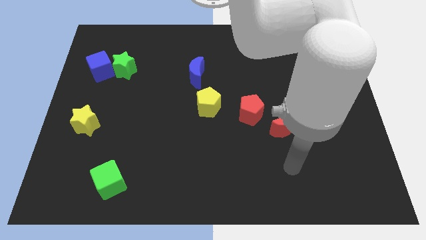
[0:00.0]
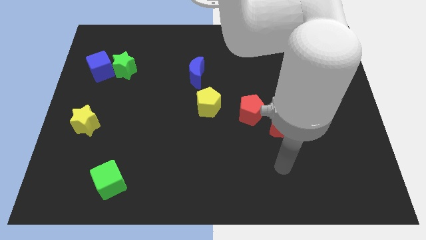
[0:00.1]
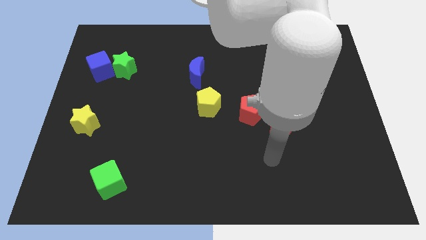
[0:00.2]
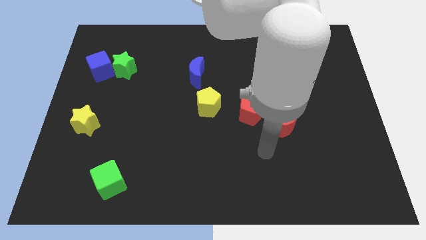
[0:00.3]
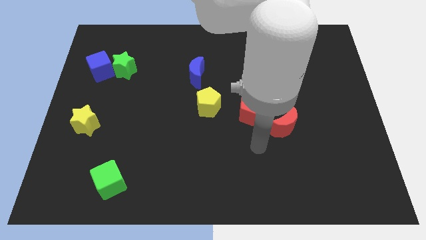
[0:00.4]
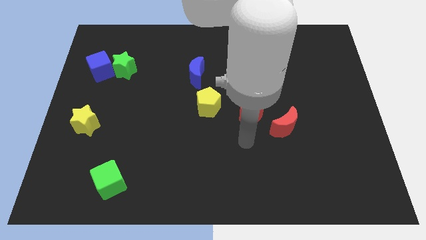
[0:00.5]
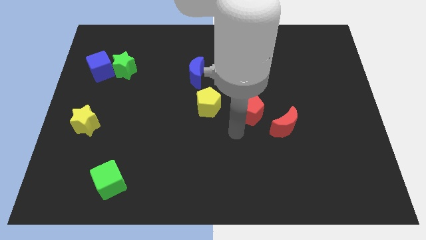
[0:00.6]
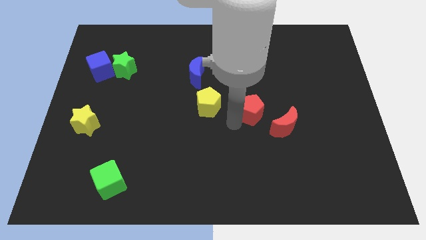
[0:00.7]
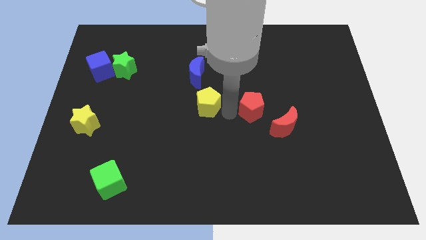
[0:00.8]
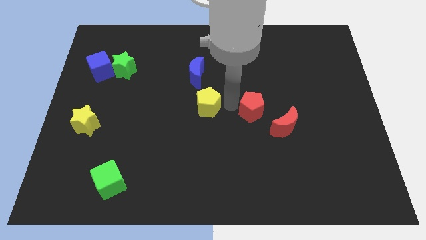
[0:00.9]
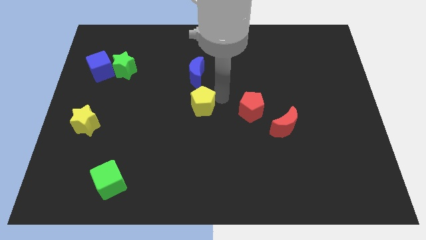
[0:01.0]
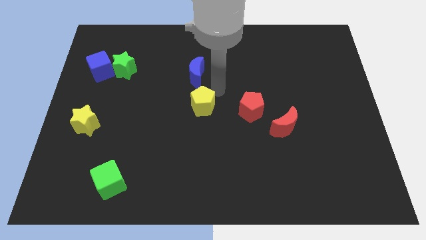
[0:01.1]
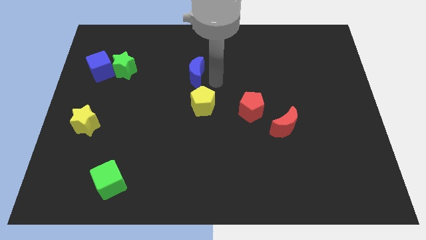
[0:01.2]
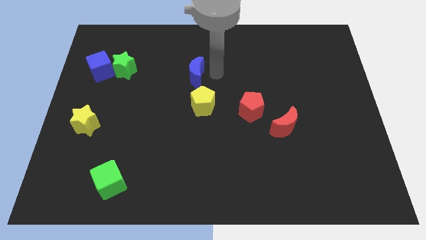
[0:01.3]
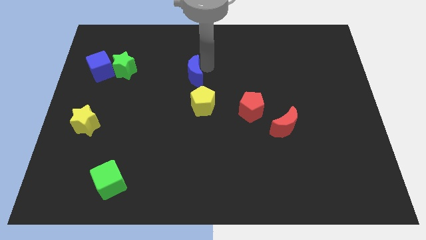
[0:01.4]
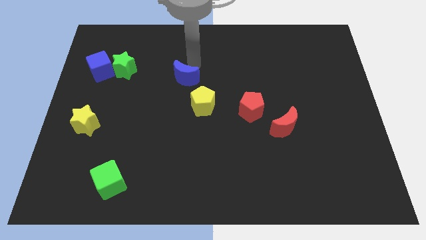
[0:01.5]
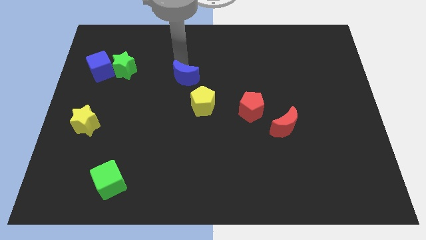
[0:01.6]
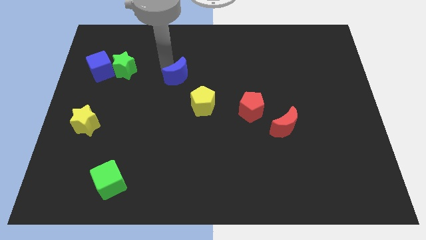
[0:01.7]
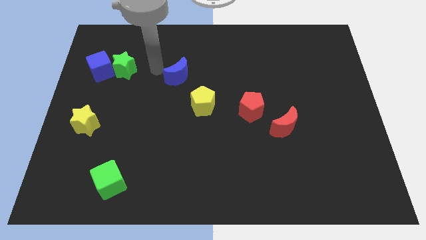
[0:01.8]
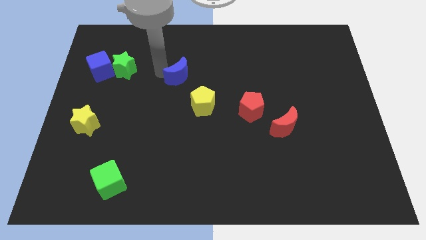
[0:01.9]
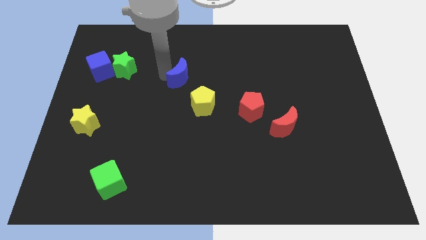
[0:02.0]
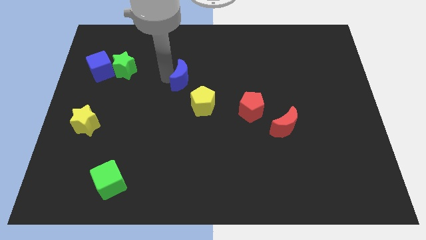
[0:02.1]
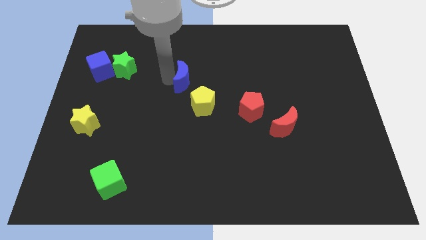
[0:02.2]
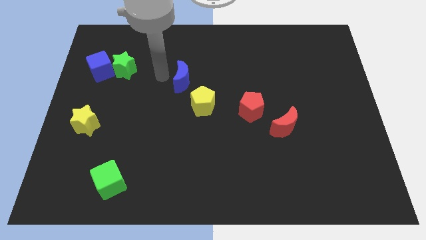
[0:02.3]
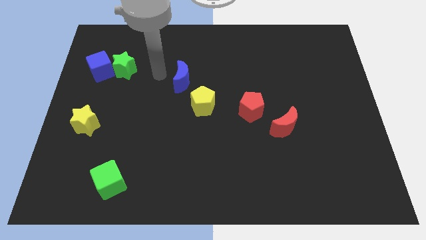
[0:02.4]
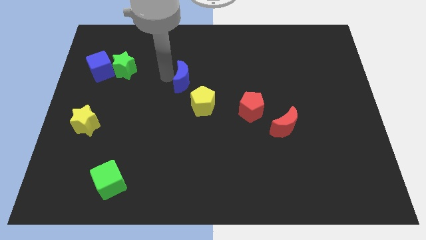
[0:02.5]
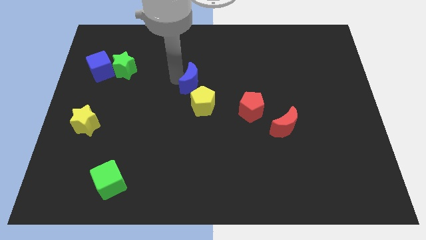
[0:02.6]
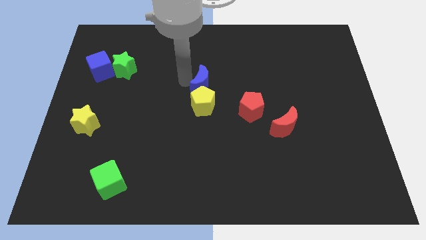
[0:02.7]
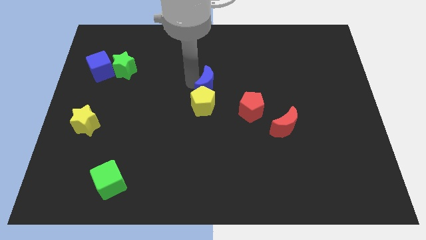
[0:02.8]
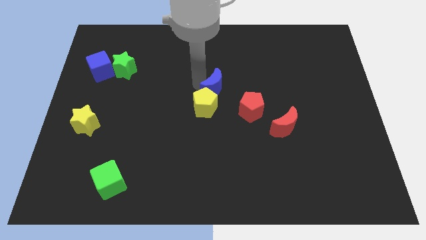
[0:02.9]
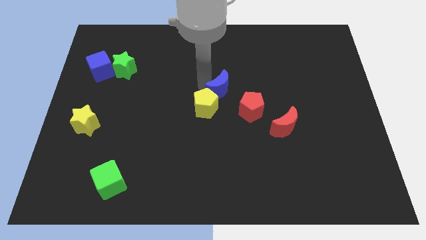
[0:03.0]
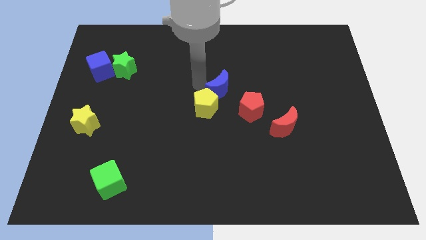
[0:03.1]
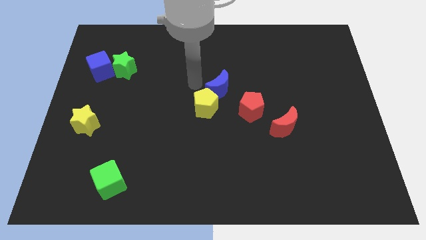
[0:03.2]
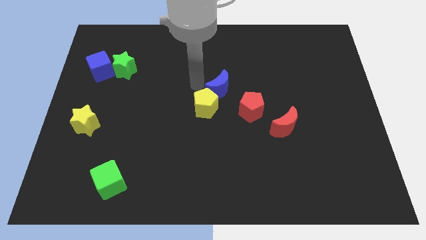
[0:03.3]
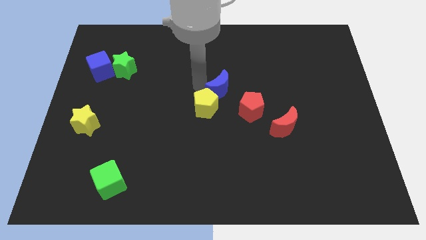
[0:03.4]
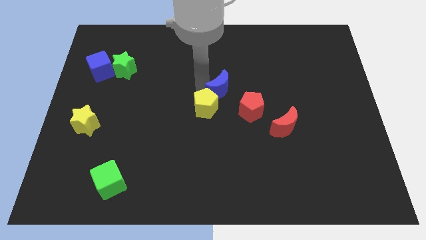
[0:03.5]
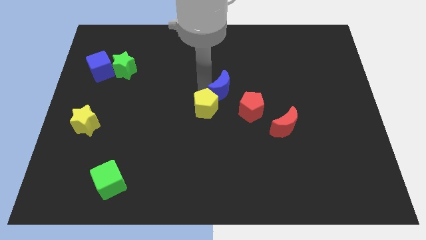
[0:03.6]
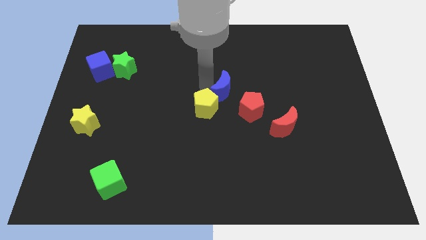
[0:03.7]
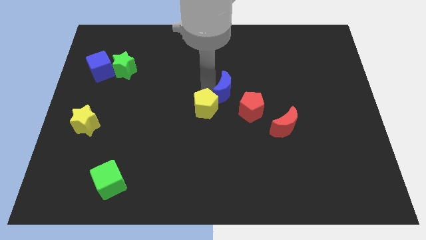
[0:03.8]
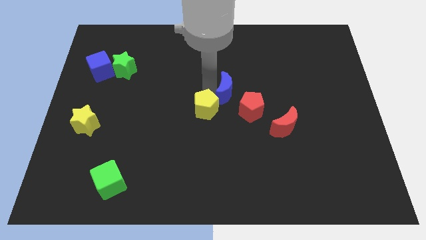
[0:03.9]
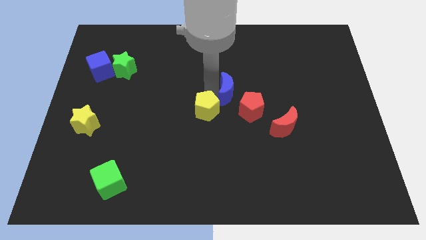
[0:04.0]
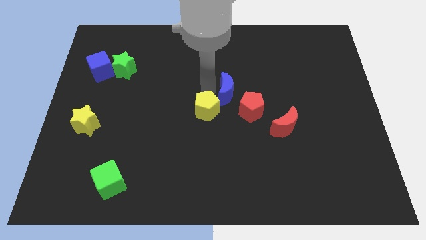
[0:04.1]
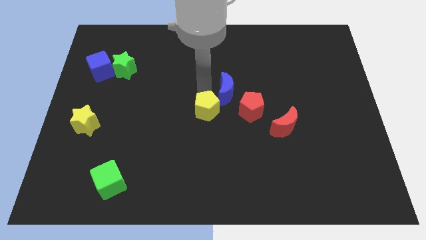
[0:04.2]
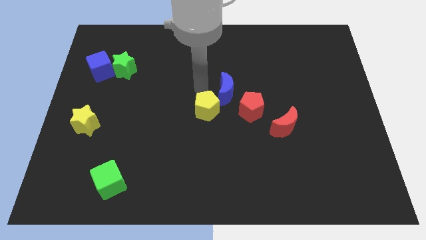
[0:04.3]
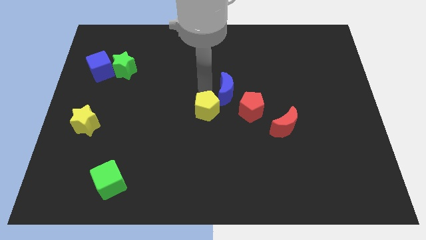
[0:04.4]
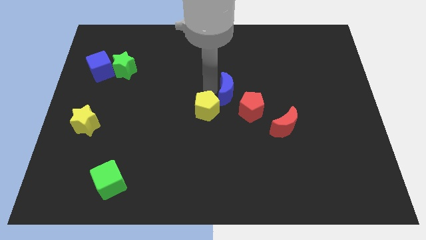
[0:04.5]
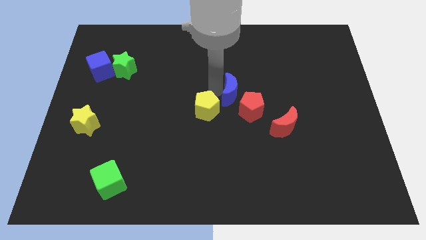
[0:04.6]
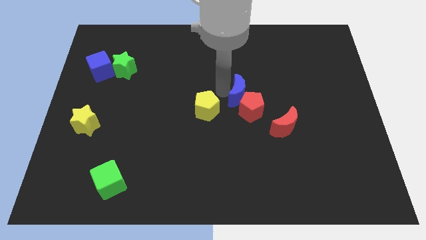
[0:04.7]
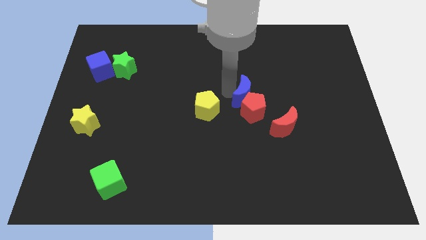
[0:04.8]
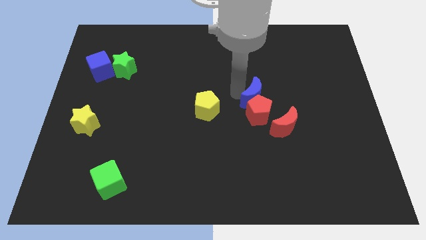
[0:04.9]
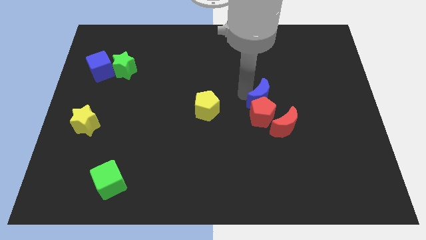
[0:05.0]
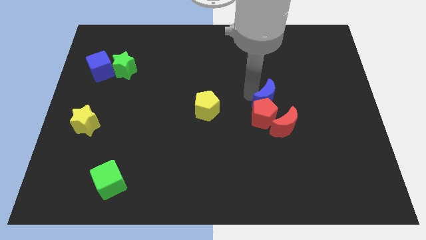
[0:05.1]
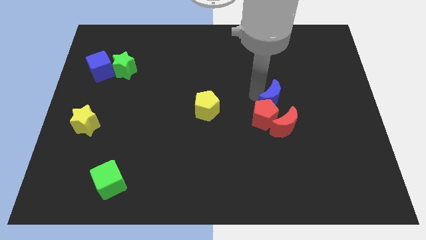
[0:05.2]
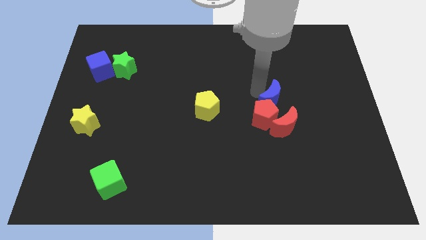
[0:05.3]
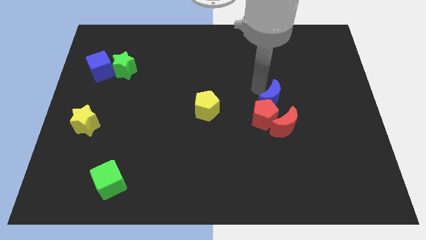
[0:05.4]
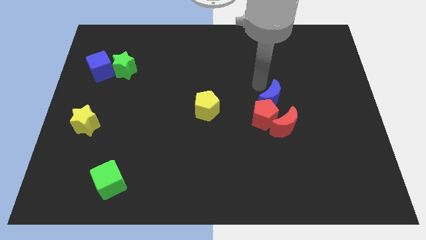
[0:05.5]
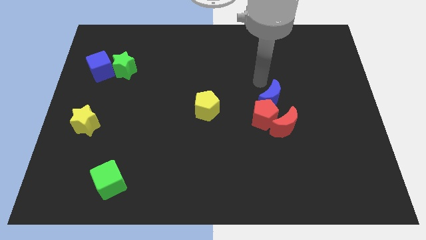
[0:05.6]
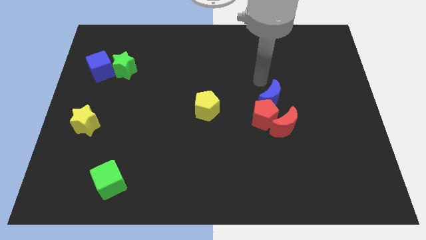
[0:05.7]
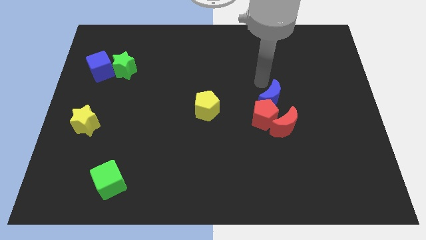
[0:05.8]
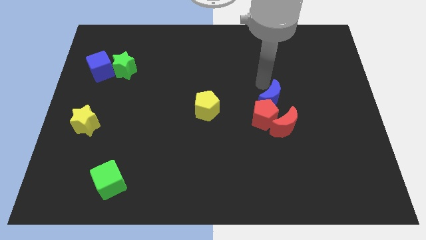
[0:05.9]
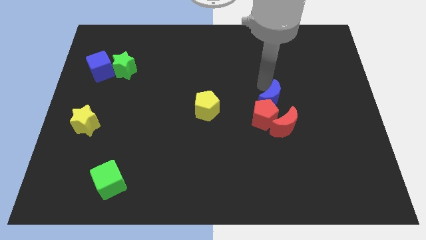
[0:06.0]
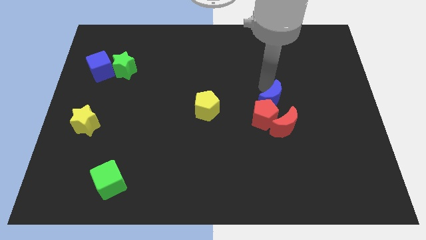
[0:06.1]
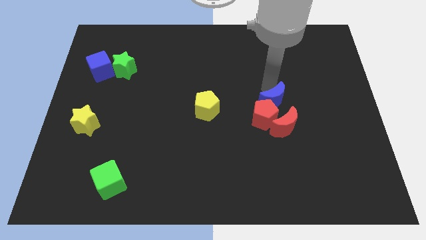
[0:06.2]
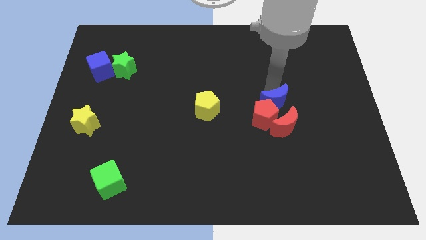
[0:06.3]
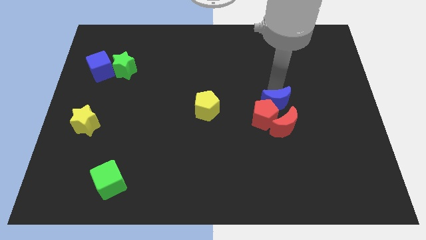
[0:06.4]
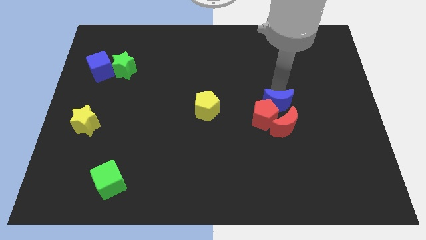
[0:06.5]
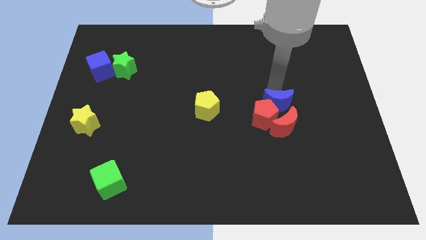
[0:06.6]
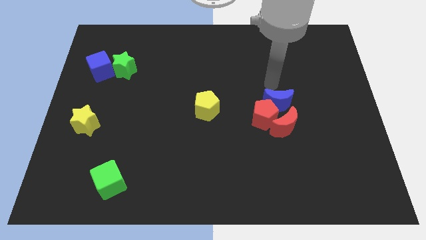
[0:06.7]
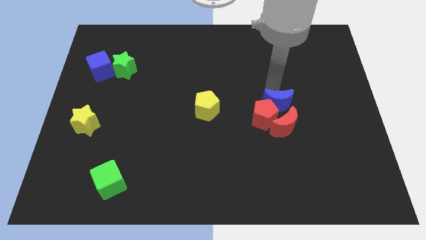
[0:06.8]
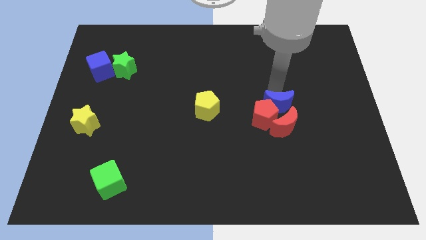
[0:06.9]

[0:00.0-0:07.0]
move the blue moon close to the red moon
